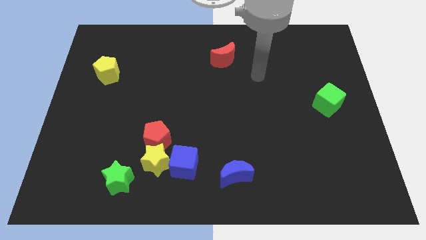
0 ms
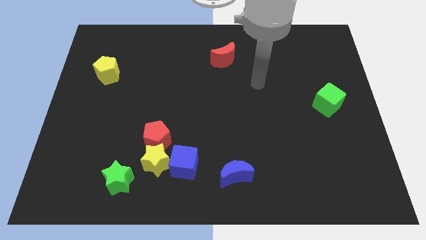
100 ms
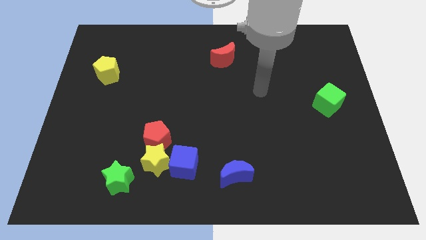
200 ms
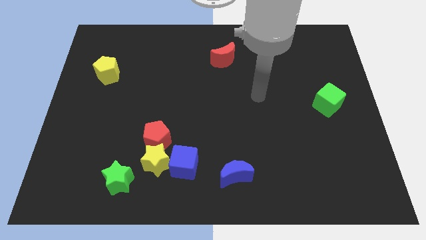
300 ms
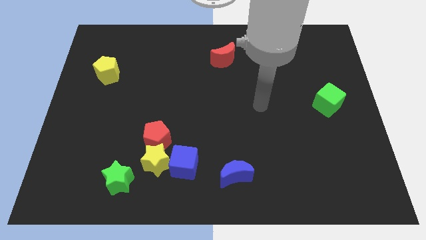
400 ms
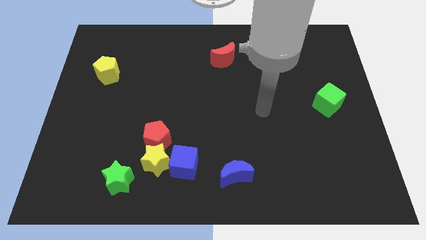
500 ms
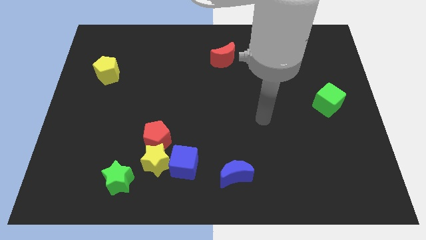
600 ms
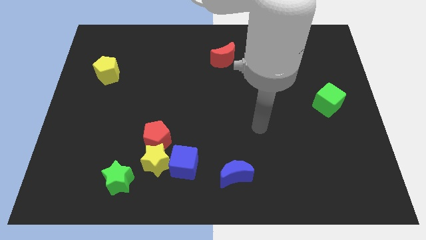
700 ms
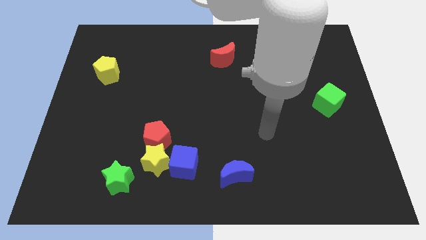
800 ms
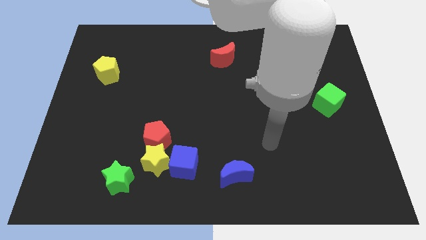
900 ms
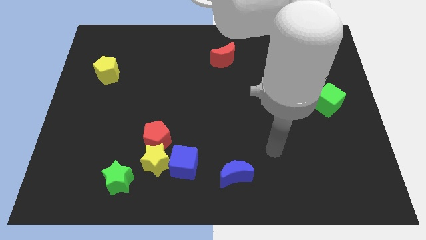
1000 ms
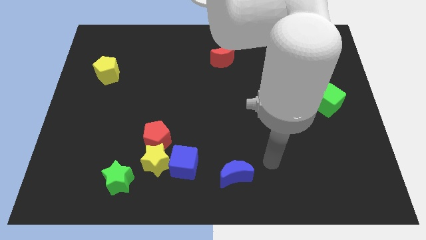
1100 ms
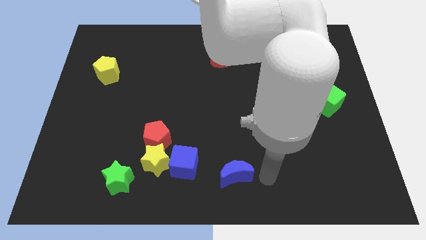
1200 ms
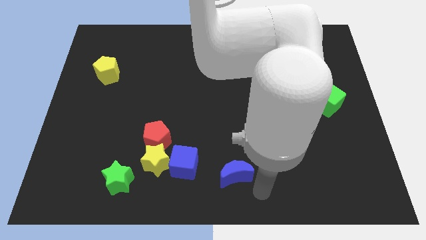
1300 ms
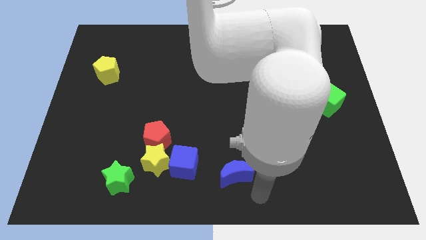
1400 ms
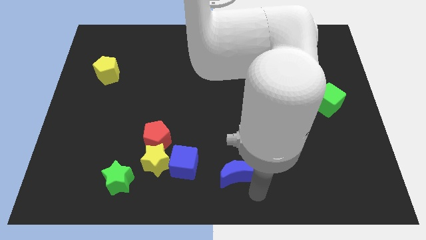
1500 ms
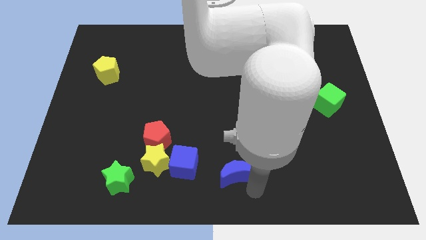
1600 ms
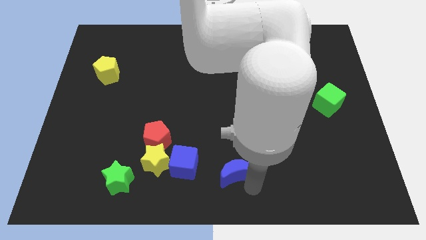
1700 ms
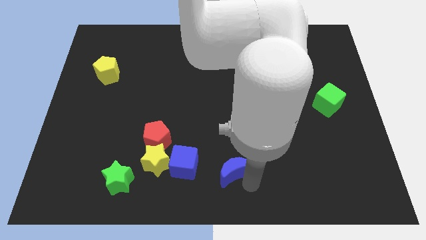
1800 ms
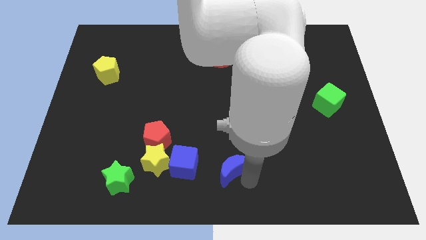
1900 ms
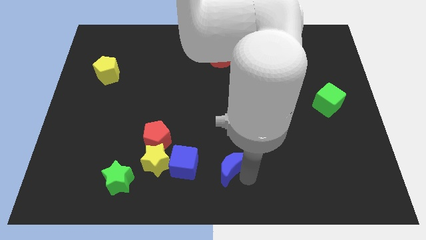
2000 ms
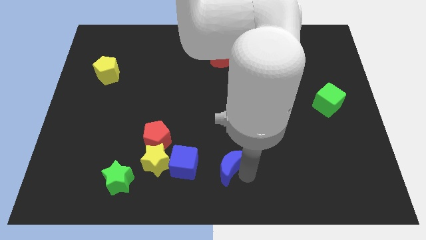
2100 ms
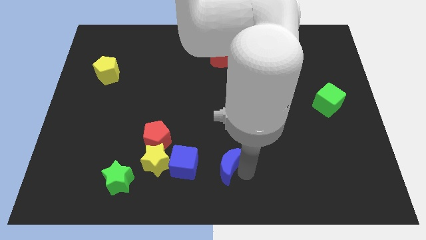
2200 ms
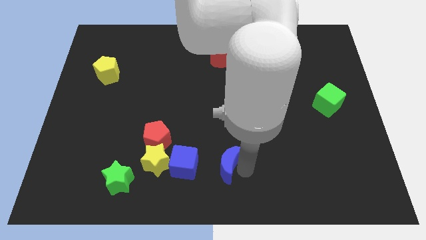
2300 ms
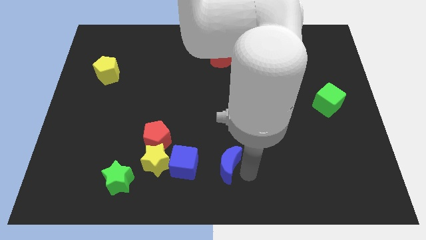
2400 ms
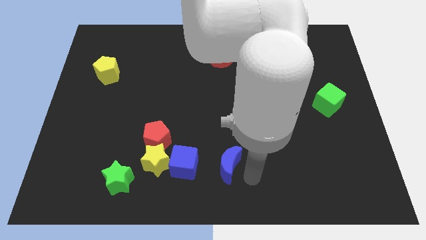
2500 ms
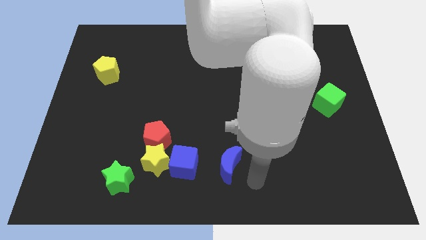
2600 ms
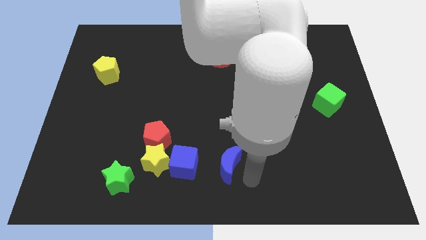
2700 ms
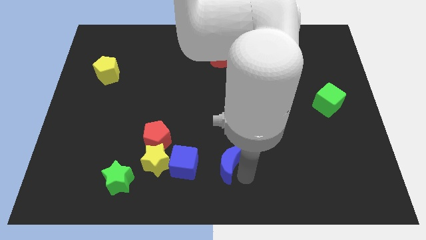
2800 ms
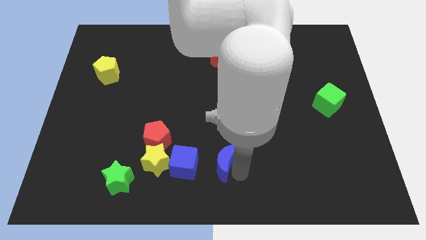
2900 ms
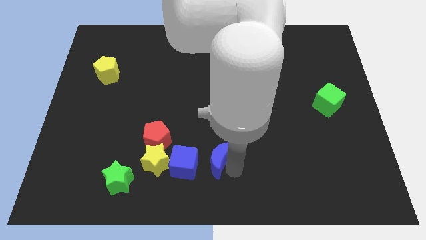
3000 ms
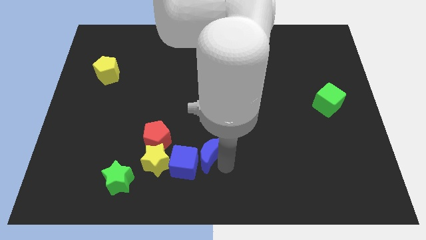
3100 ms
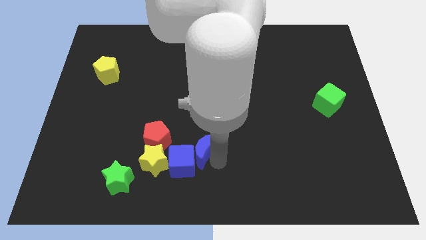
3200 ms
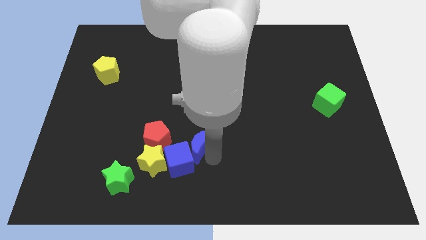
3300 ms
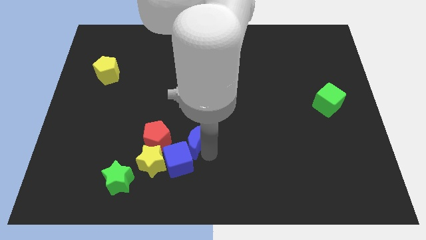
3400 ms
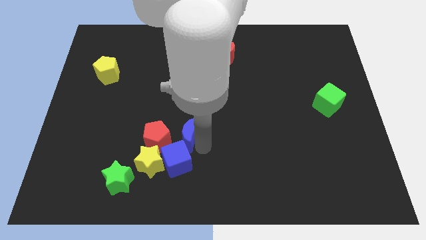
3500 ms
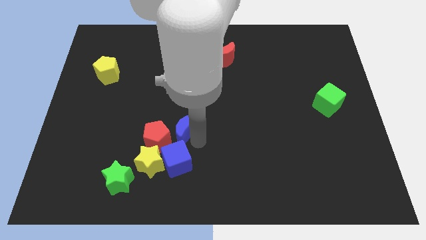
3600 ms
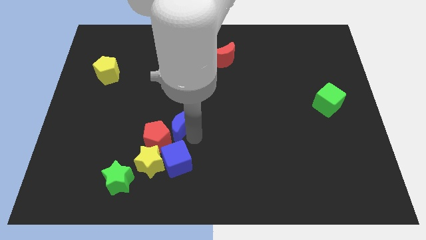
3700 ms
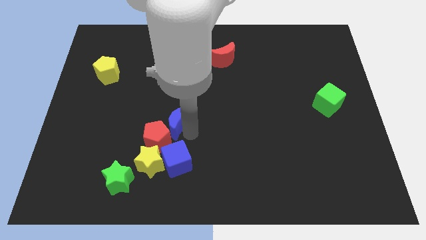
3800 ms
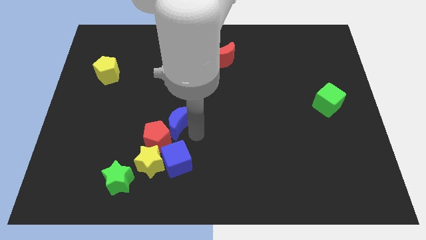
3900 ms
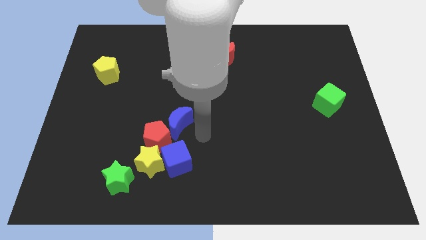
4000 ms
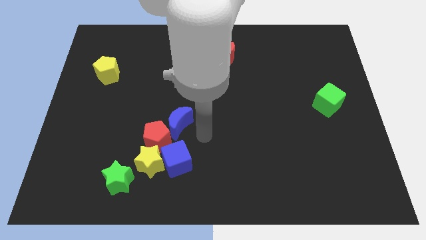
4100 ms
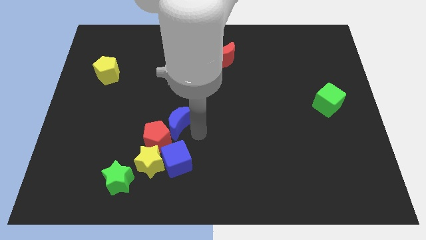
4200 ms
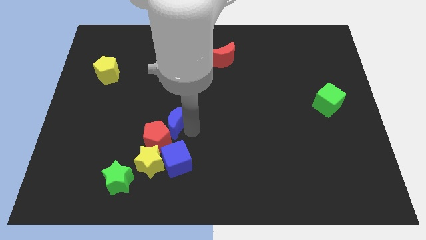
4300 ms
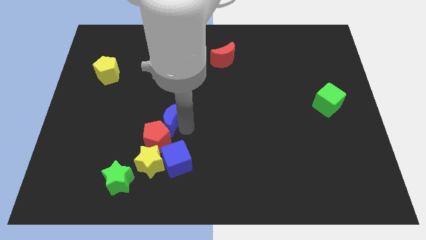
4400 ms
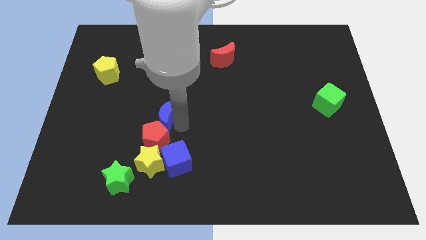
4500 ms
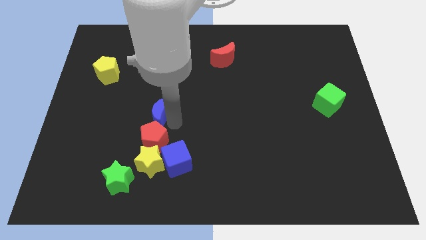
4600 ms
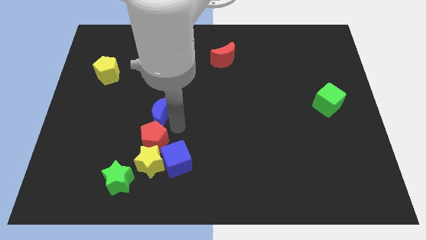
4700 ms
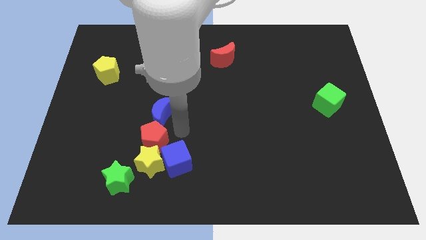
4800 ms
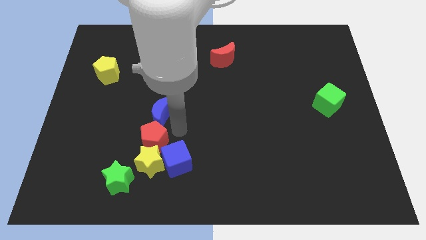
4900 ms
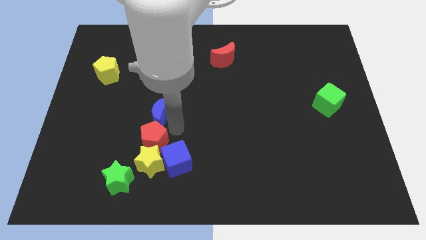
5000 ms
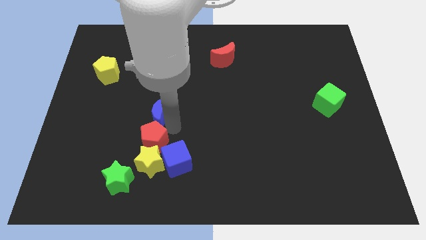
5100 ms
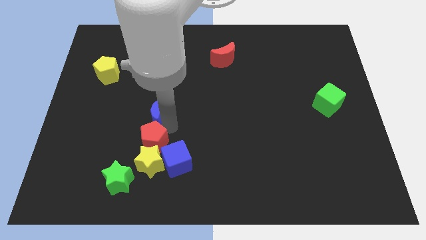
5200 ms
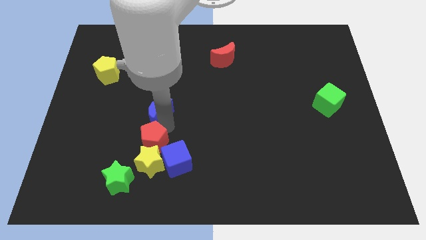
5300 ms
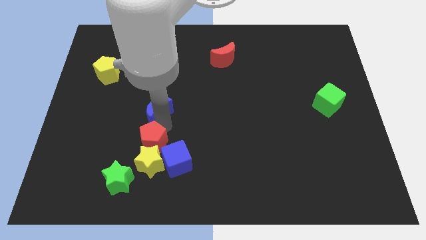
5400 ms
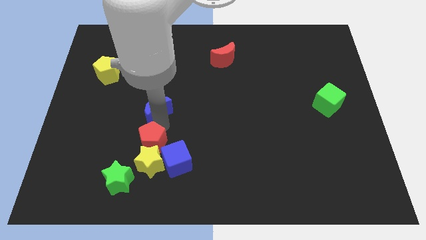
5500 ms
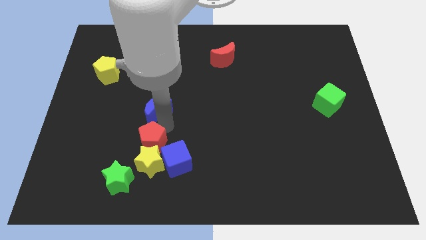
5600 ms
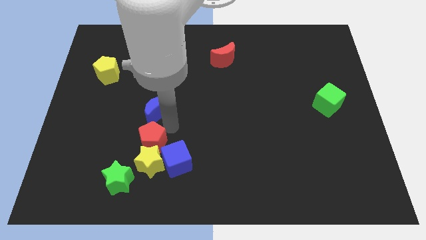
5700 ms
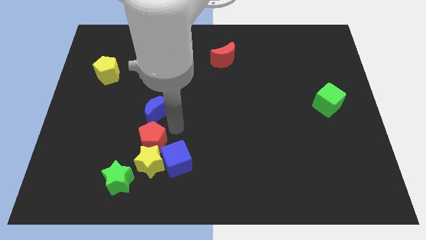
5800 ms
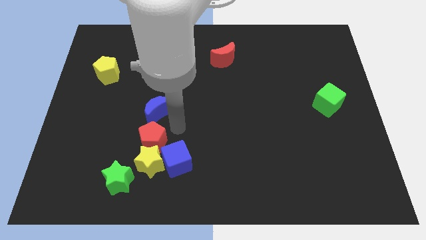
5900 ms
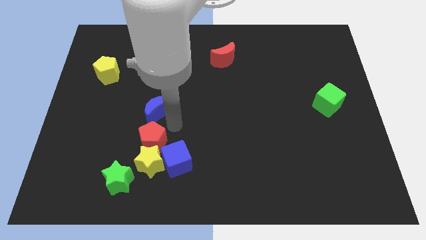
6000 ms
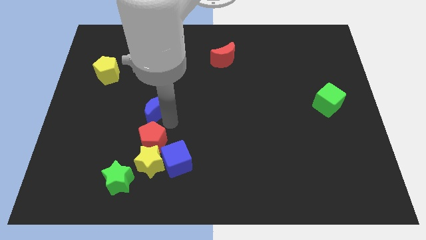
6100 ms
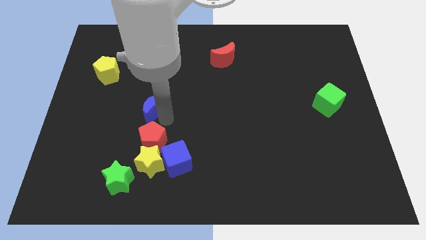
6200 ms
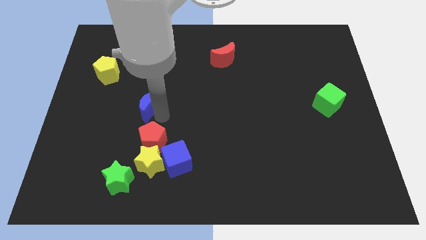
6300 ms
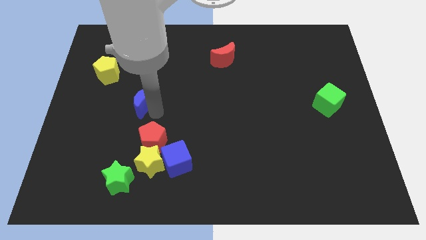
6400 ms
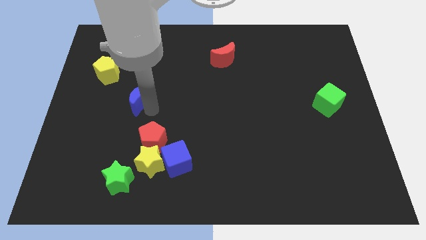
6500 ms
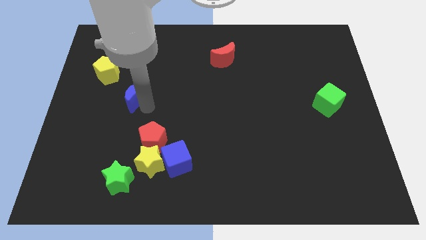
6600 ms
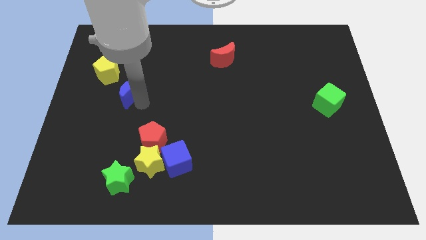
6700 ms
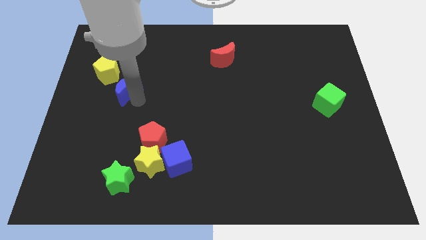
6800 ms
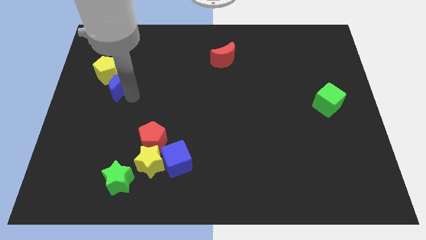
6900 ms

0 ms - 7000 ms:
put the blue moon next to the yellow pentagon
